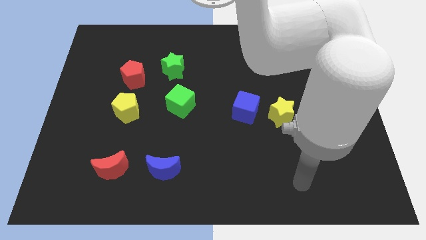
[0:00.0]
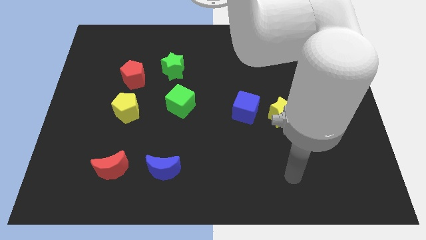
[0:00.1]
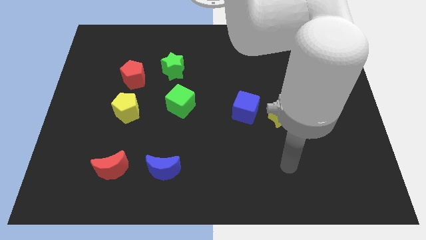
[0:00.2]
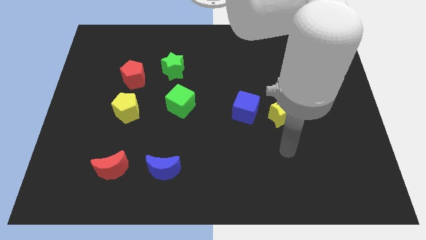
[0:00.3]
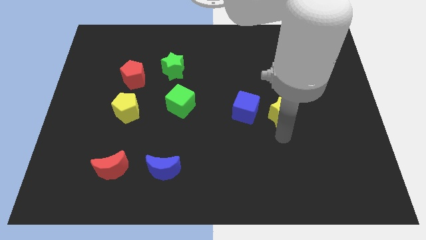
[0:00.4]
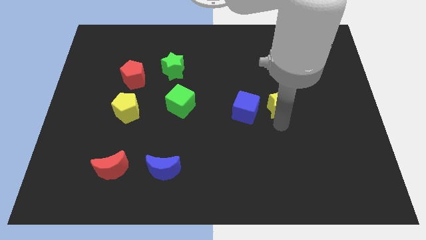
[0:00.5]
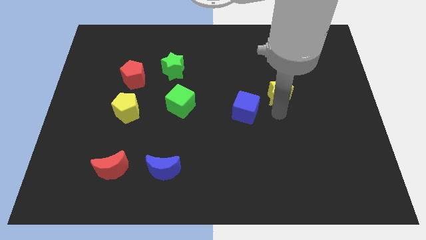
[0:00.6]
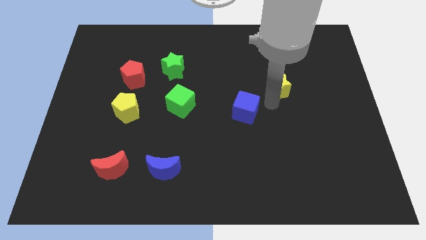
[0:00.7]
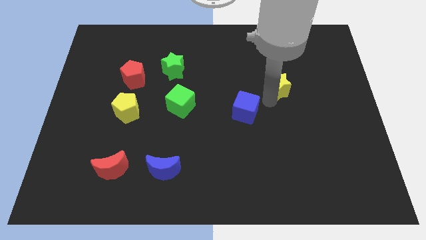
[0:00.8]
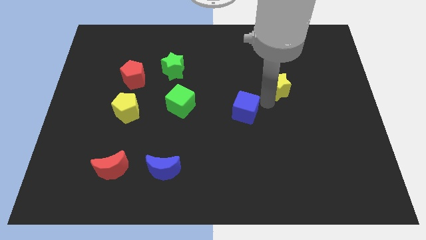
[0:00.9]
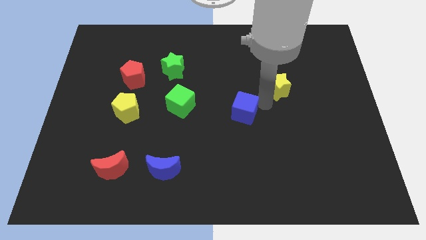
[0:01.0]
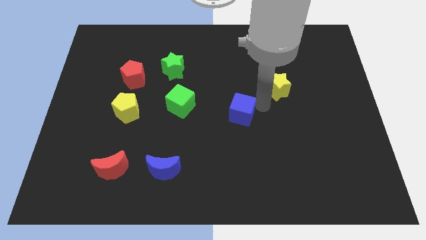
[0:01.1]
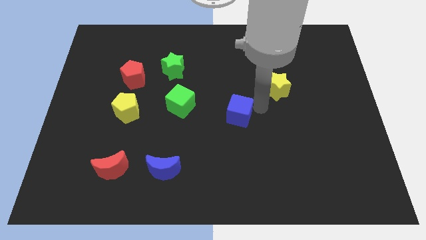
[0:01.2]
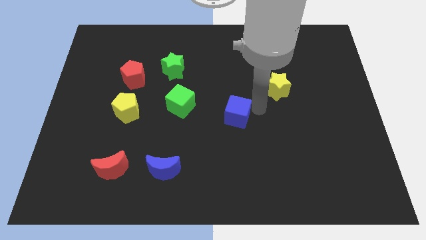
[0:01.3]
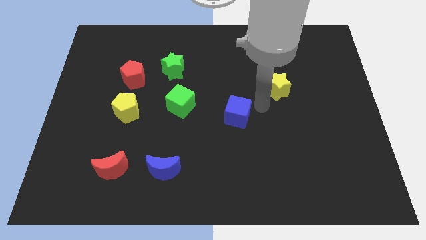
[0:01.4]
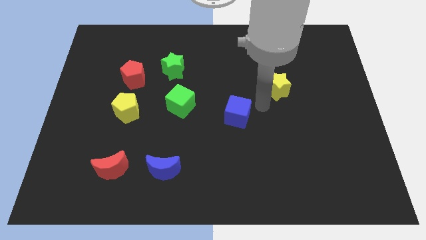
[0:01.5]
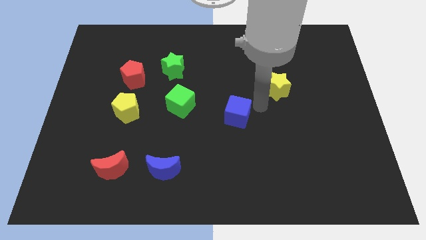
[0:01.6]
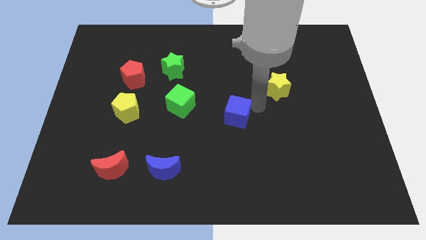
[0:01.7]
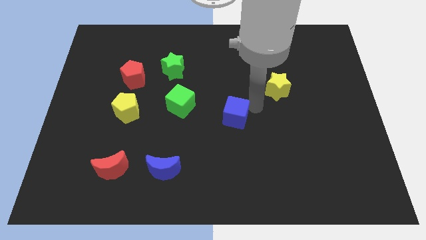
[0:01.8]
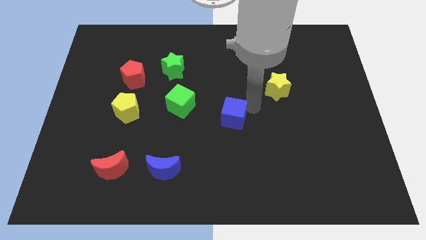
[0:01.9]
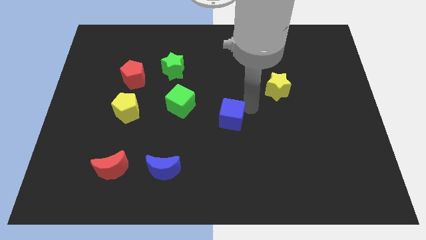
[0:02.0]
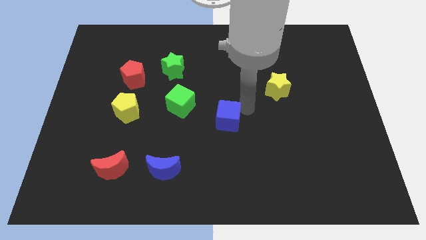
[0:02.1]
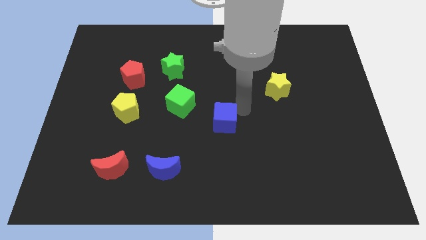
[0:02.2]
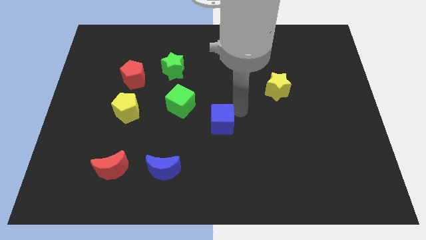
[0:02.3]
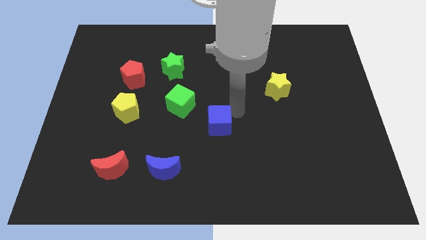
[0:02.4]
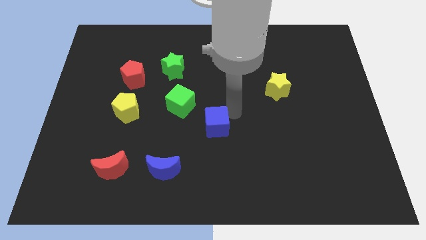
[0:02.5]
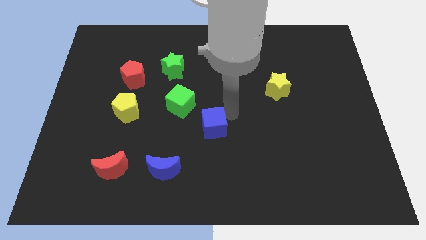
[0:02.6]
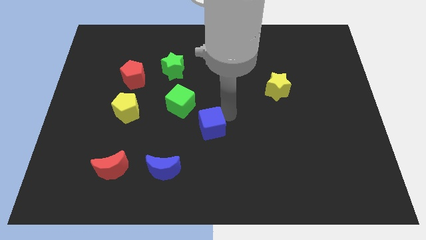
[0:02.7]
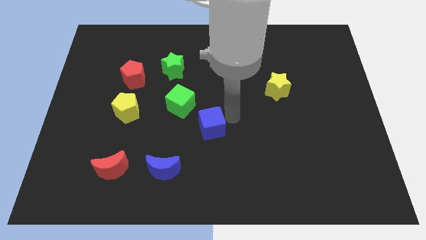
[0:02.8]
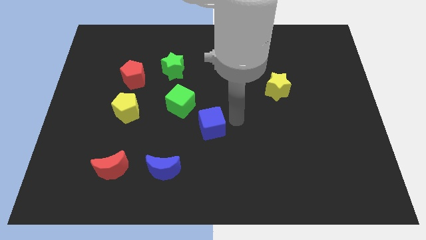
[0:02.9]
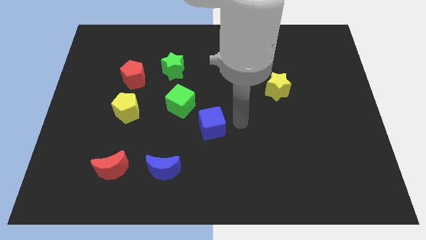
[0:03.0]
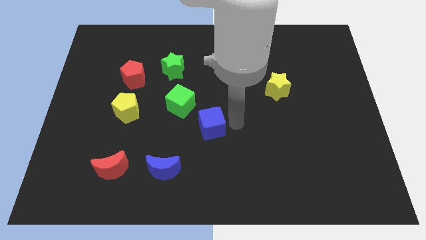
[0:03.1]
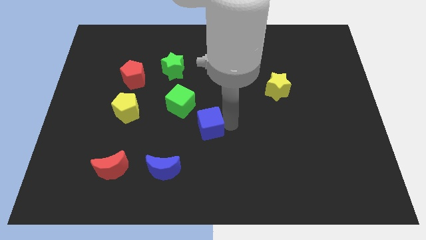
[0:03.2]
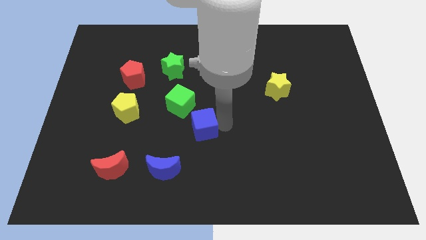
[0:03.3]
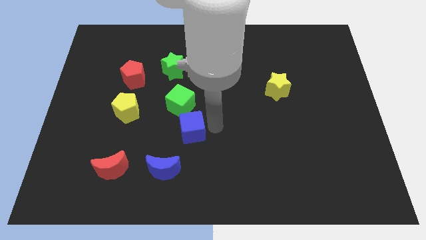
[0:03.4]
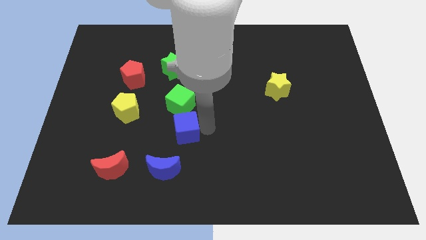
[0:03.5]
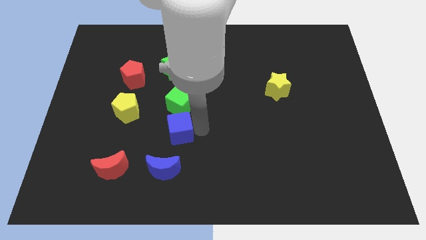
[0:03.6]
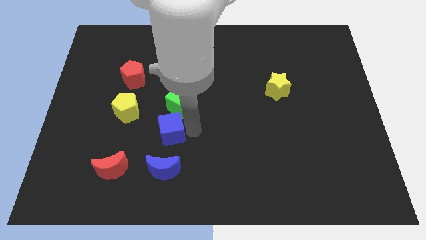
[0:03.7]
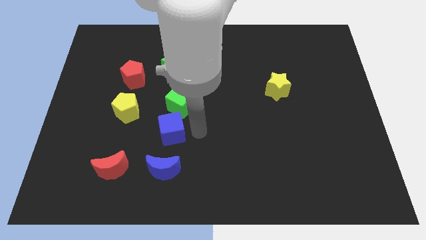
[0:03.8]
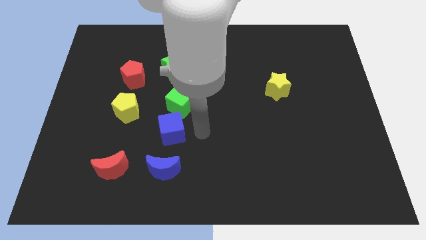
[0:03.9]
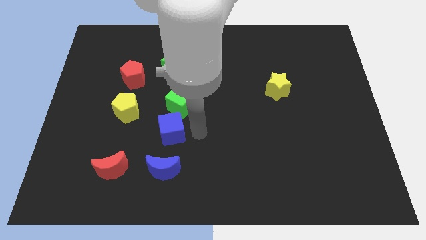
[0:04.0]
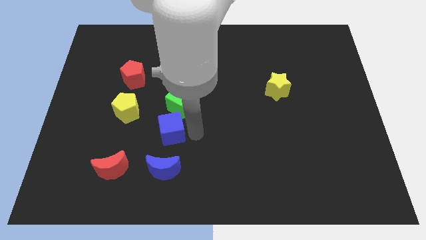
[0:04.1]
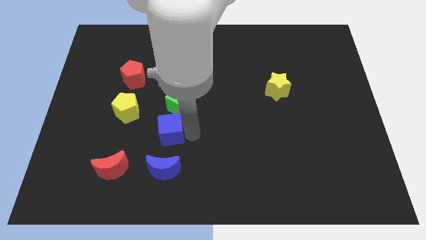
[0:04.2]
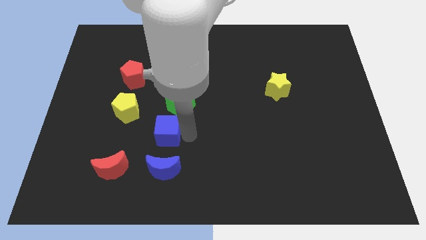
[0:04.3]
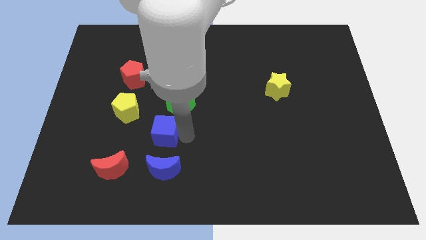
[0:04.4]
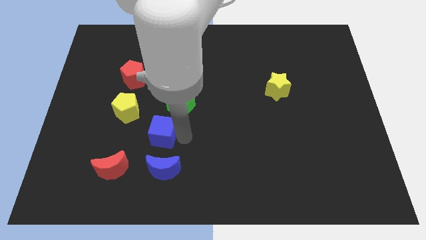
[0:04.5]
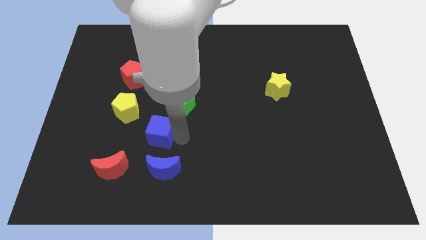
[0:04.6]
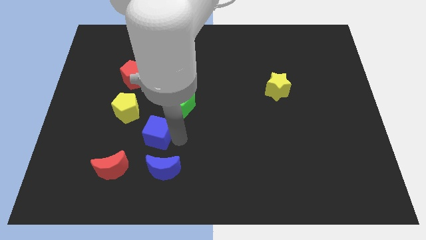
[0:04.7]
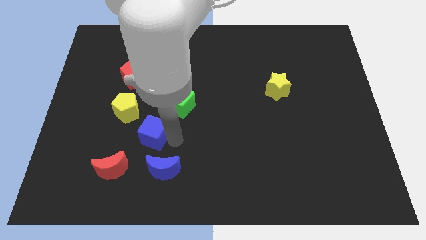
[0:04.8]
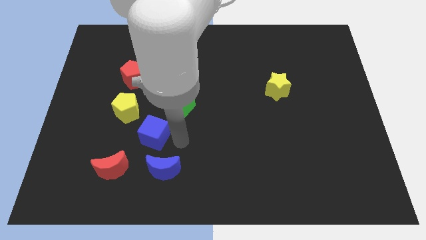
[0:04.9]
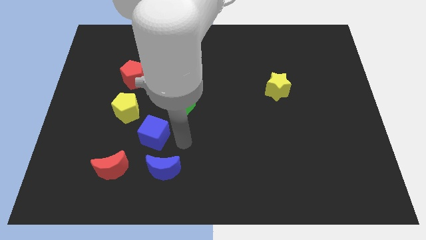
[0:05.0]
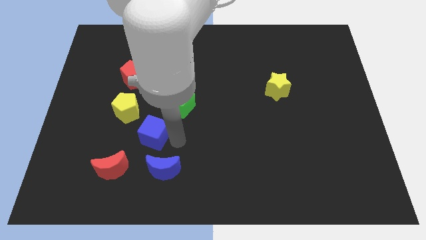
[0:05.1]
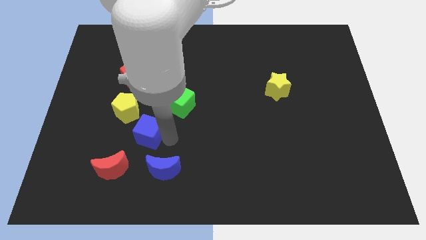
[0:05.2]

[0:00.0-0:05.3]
move the blue cube left

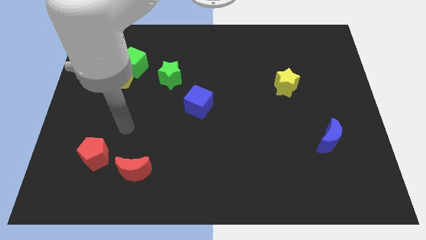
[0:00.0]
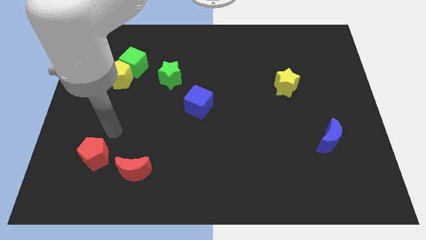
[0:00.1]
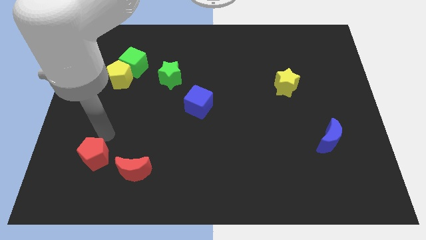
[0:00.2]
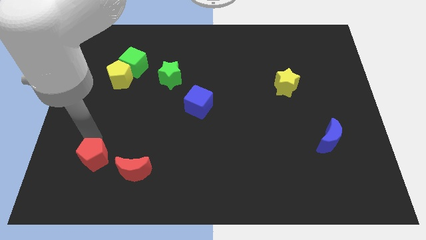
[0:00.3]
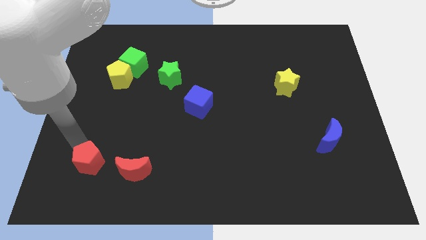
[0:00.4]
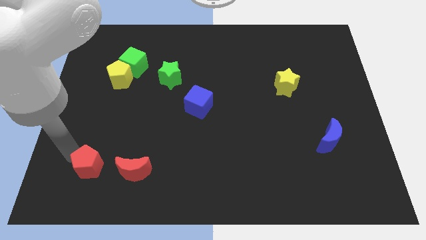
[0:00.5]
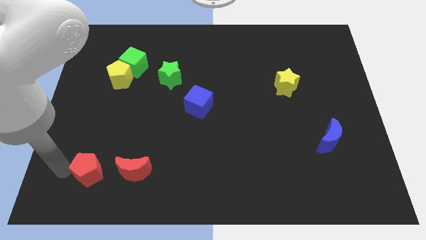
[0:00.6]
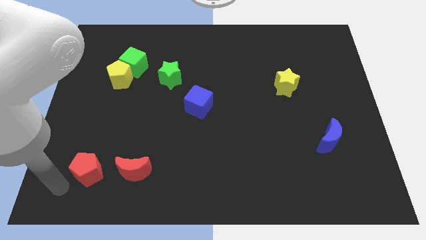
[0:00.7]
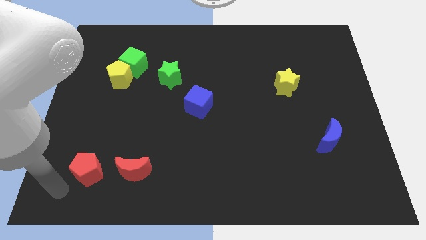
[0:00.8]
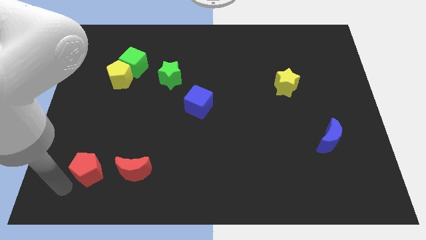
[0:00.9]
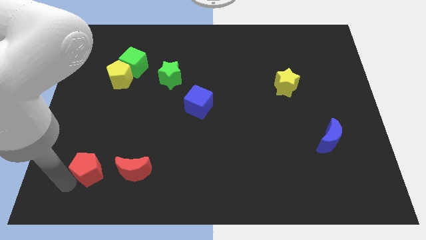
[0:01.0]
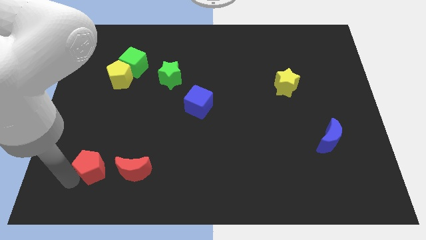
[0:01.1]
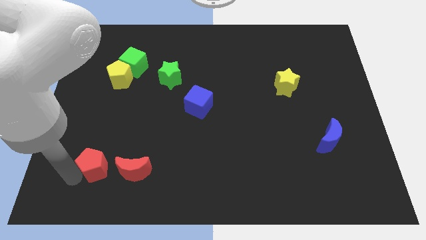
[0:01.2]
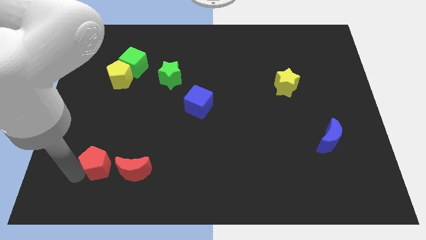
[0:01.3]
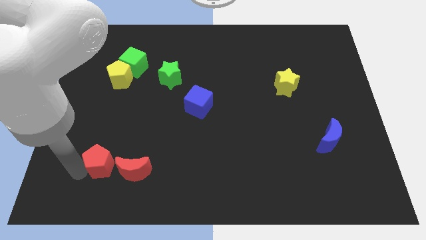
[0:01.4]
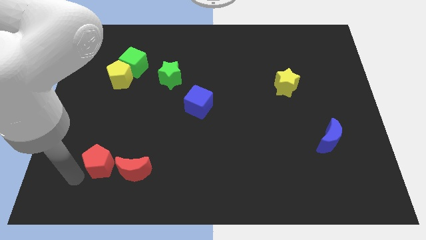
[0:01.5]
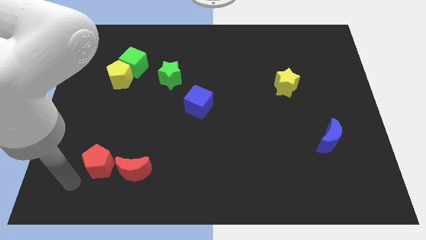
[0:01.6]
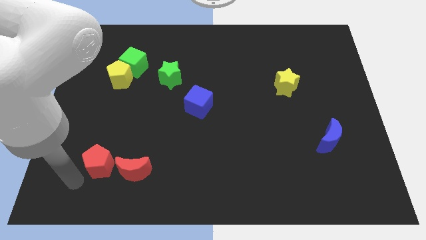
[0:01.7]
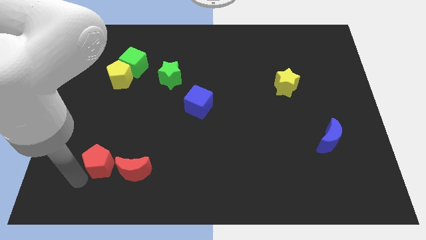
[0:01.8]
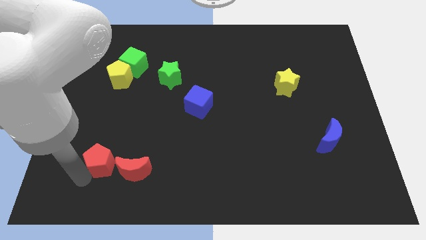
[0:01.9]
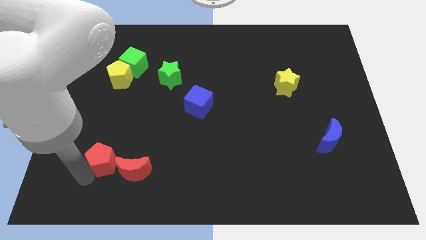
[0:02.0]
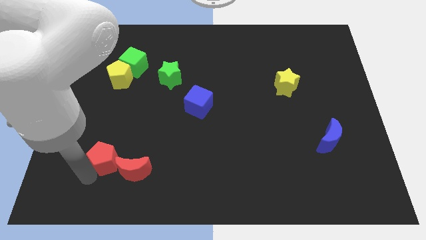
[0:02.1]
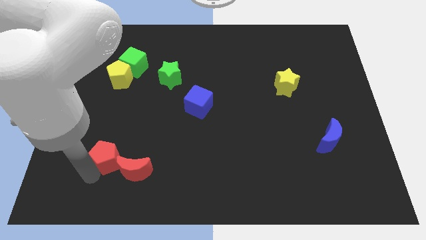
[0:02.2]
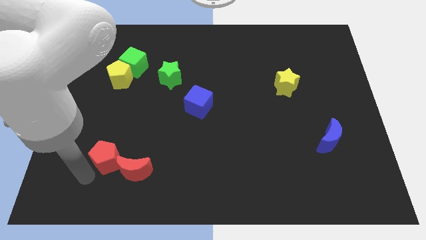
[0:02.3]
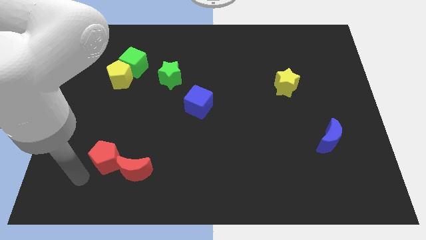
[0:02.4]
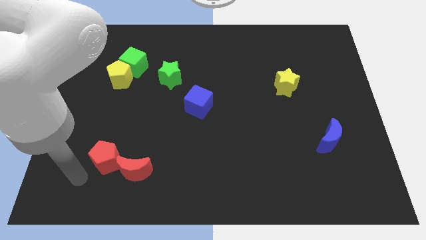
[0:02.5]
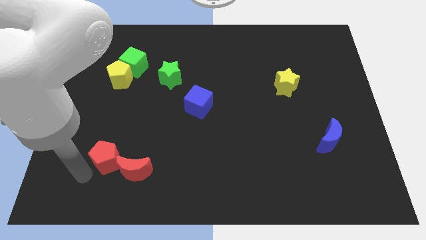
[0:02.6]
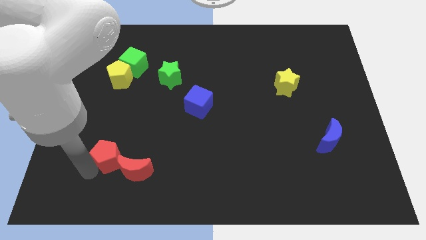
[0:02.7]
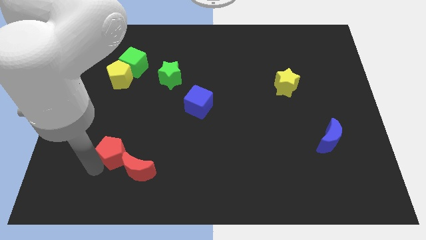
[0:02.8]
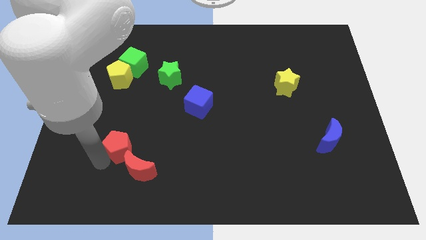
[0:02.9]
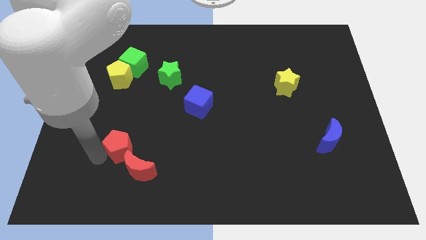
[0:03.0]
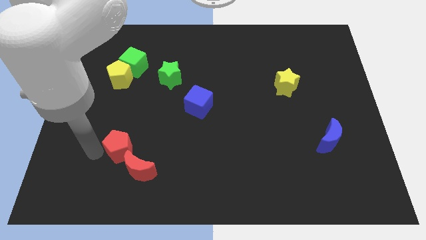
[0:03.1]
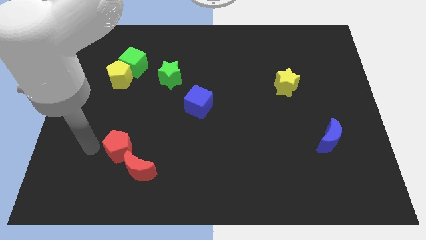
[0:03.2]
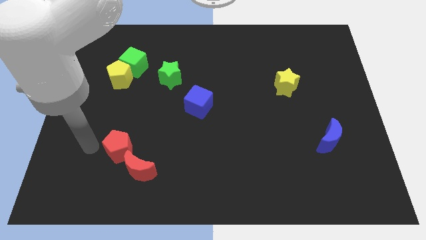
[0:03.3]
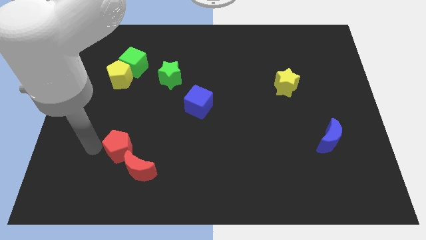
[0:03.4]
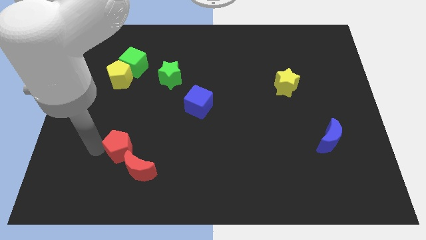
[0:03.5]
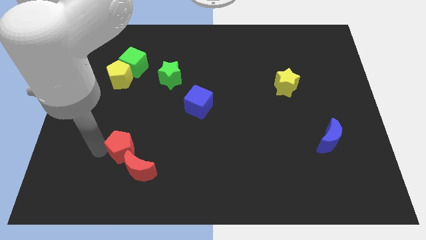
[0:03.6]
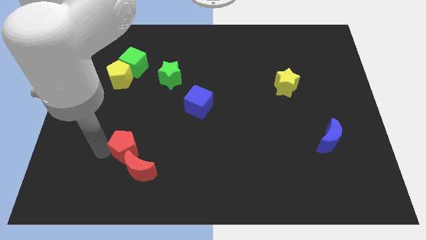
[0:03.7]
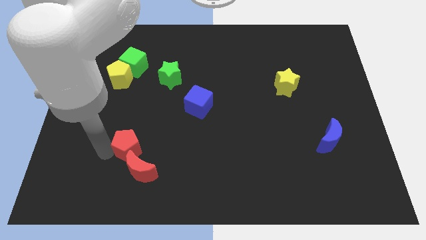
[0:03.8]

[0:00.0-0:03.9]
push the red pentagon right a bit
